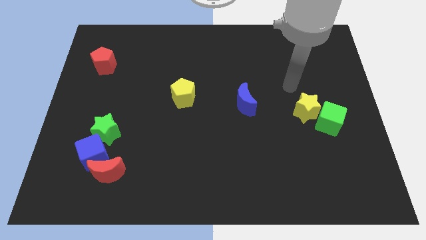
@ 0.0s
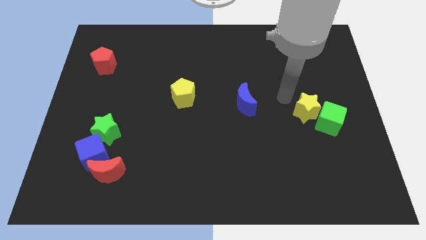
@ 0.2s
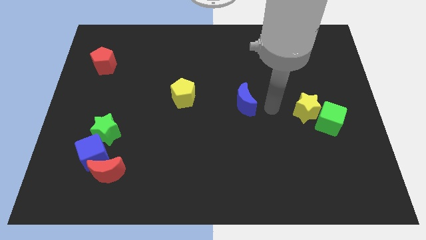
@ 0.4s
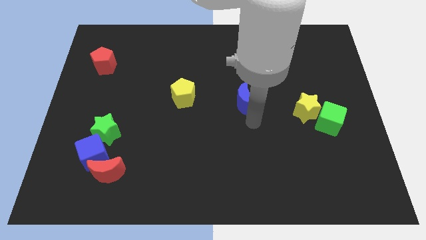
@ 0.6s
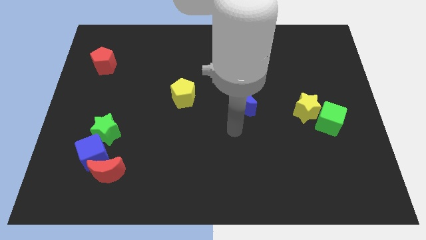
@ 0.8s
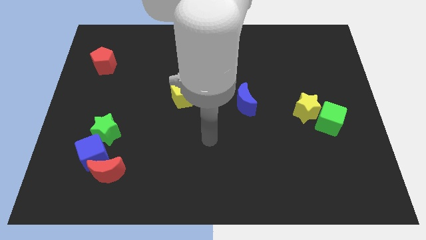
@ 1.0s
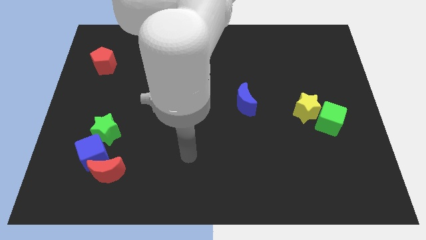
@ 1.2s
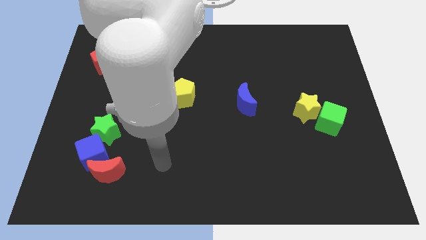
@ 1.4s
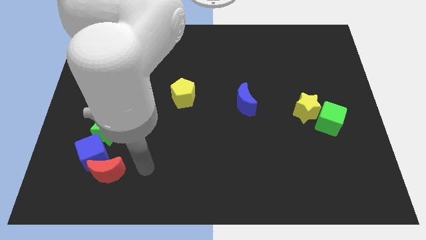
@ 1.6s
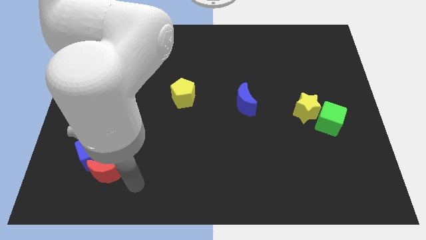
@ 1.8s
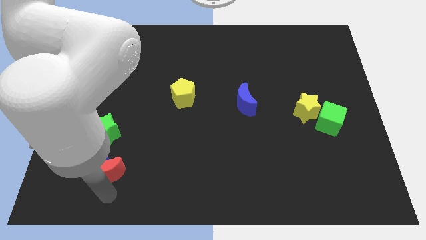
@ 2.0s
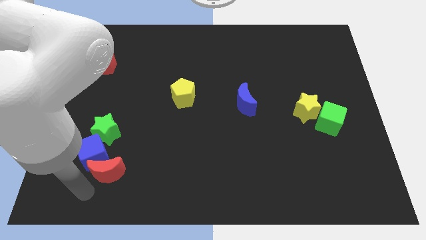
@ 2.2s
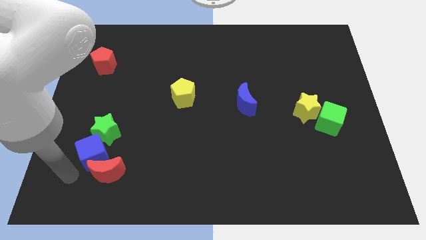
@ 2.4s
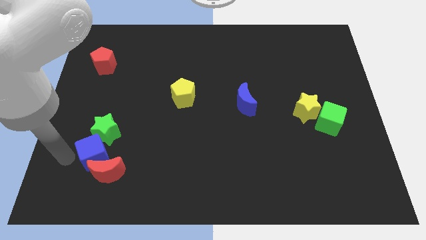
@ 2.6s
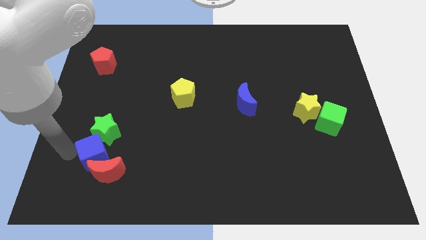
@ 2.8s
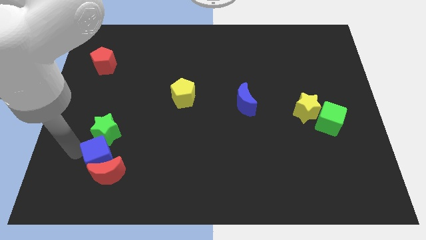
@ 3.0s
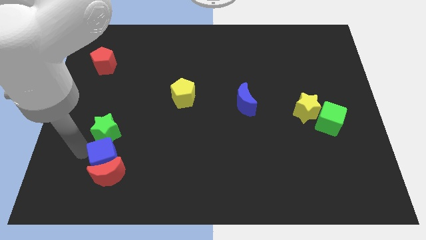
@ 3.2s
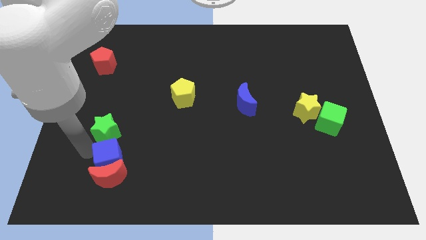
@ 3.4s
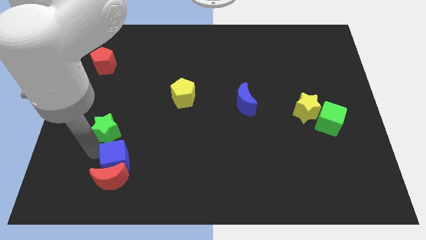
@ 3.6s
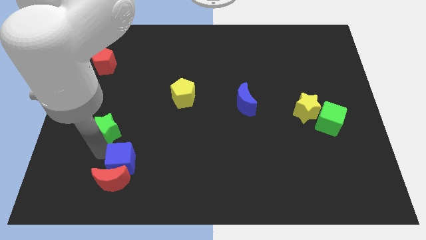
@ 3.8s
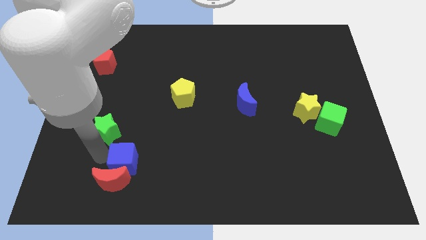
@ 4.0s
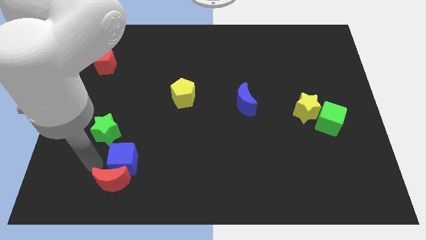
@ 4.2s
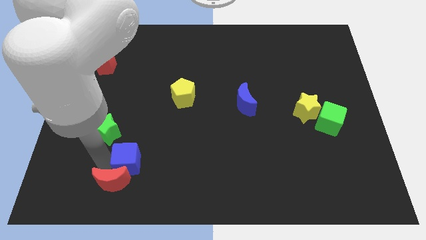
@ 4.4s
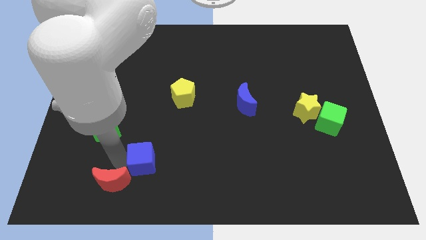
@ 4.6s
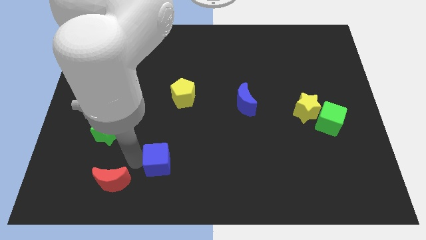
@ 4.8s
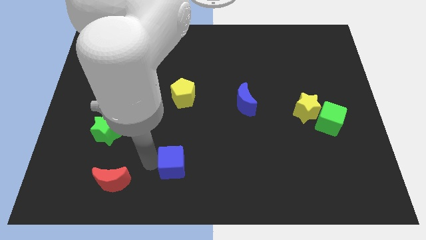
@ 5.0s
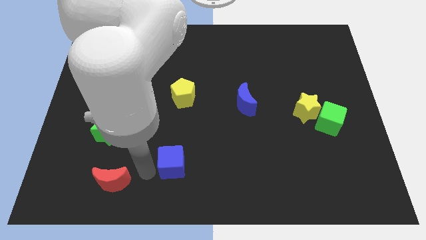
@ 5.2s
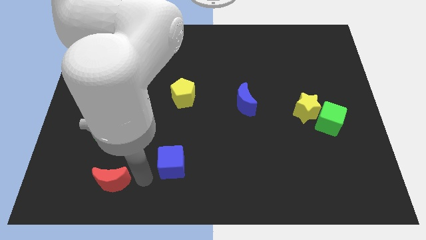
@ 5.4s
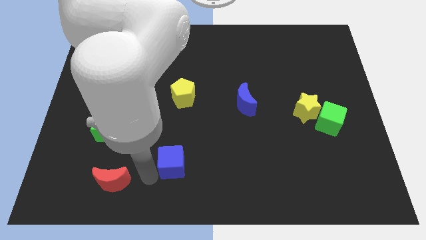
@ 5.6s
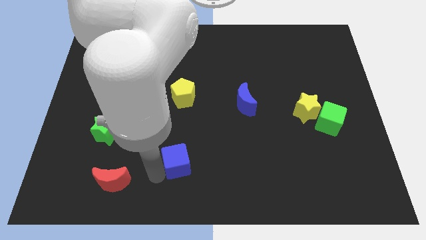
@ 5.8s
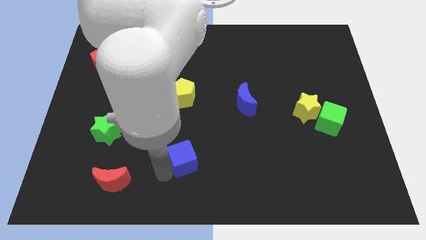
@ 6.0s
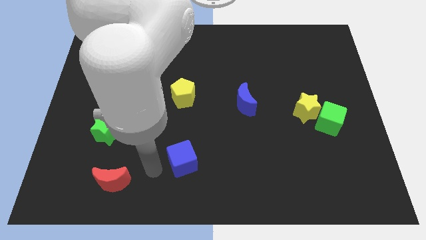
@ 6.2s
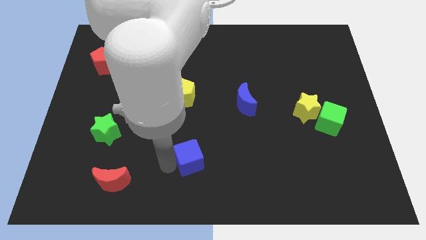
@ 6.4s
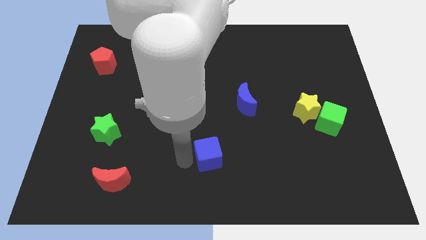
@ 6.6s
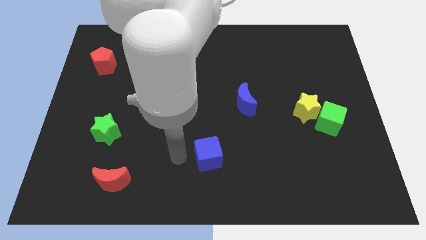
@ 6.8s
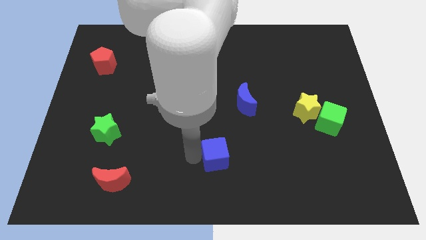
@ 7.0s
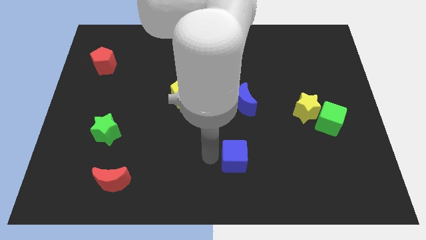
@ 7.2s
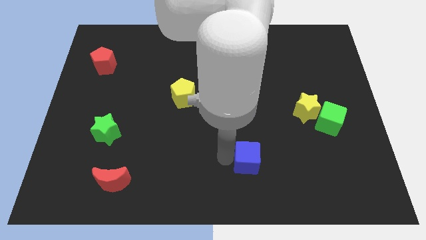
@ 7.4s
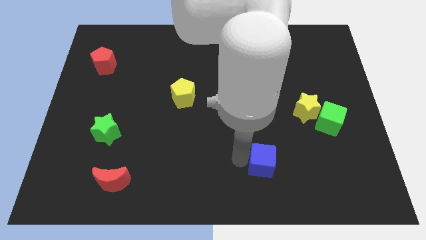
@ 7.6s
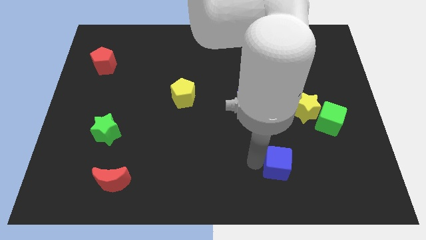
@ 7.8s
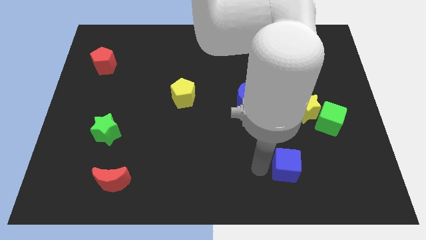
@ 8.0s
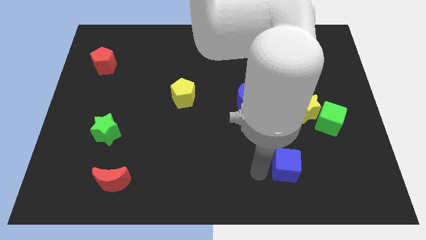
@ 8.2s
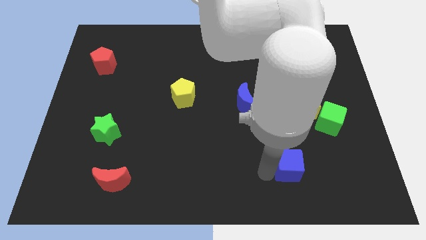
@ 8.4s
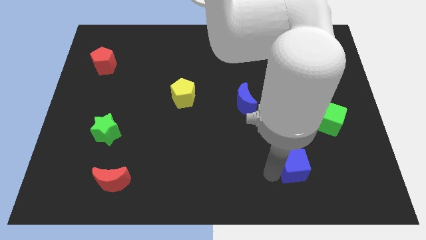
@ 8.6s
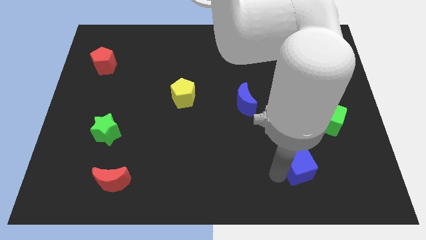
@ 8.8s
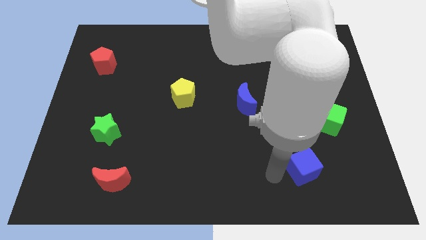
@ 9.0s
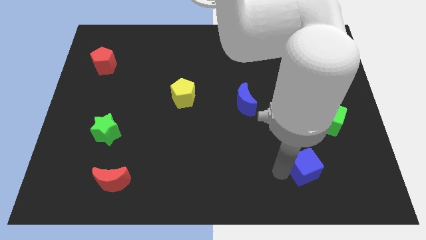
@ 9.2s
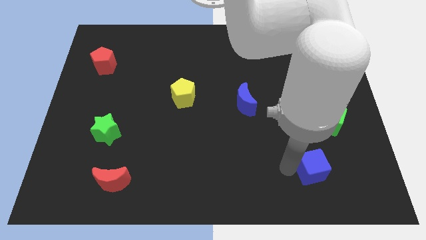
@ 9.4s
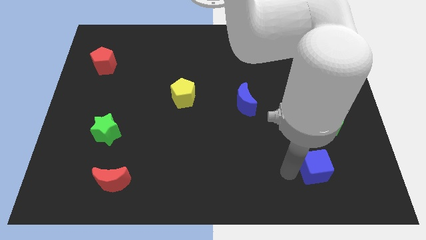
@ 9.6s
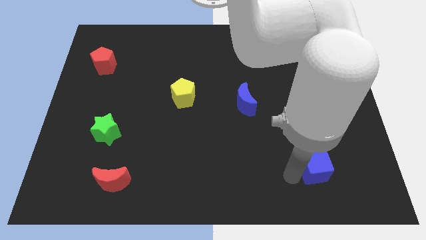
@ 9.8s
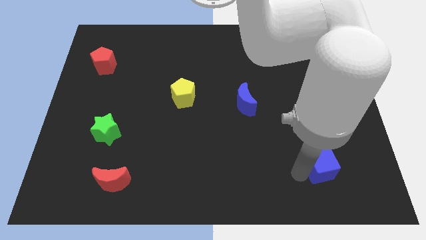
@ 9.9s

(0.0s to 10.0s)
slide the blue cube to the bottom of the green cube

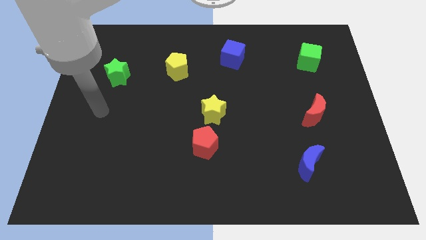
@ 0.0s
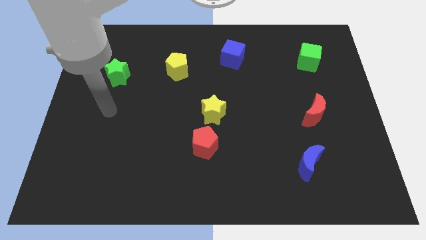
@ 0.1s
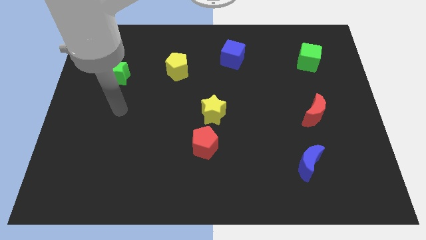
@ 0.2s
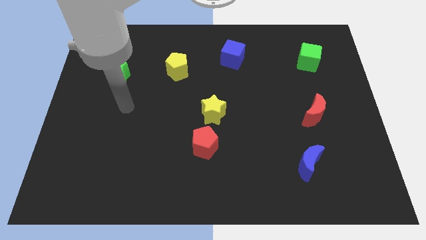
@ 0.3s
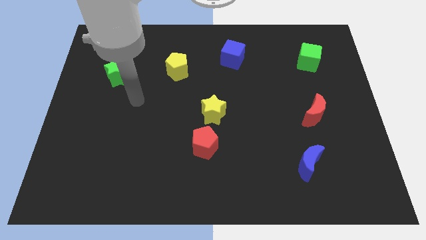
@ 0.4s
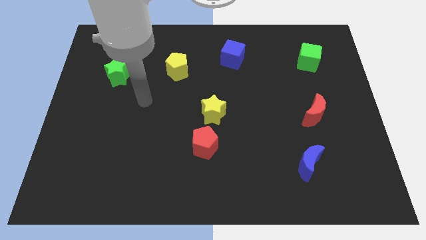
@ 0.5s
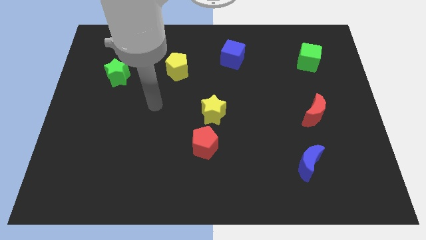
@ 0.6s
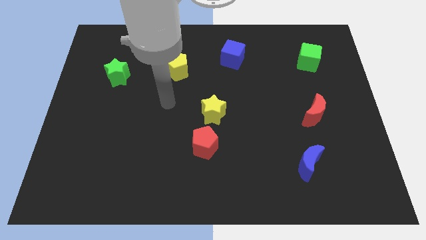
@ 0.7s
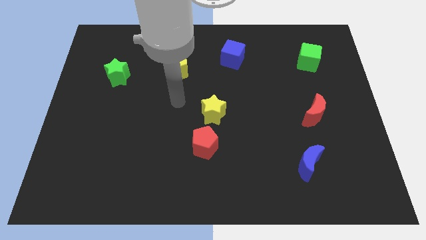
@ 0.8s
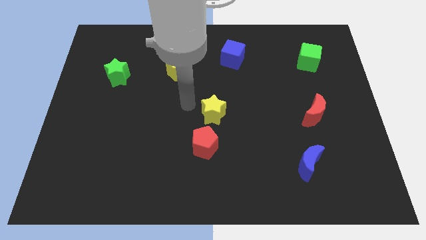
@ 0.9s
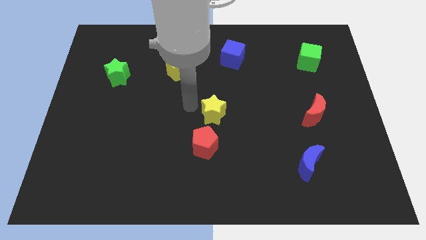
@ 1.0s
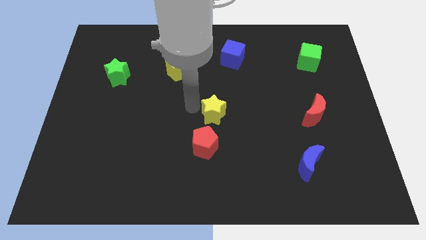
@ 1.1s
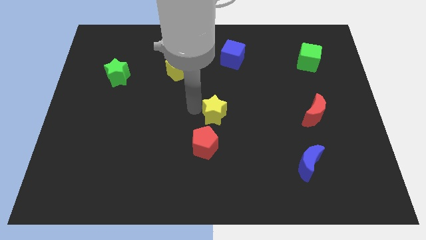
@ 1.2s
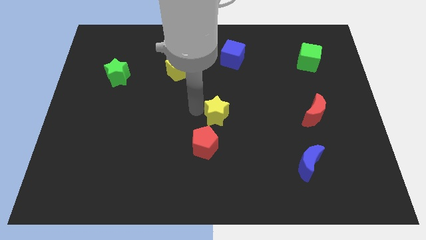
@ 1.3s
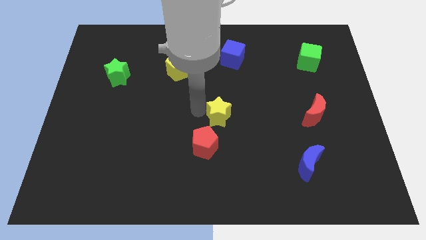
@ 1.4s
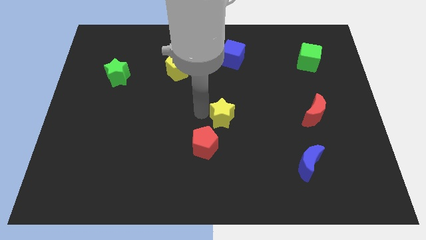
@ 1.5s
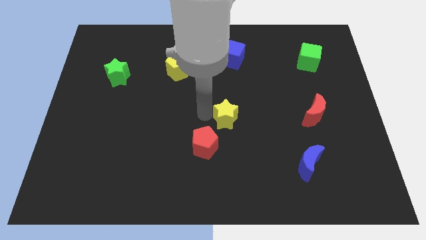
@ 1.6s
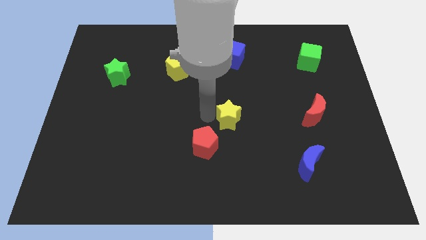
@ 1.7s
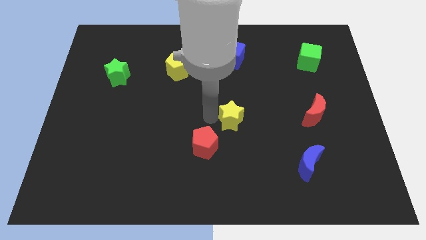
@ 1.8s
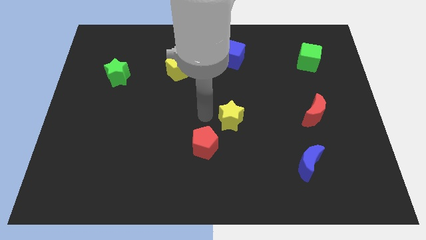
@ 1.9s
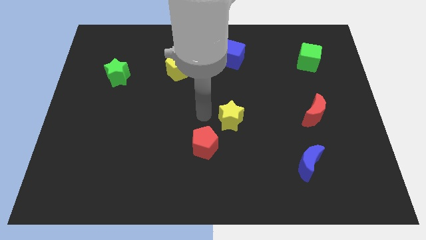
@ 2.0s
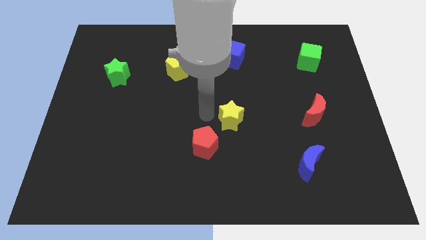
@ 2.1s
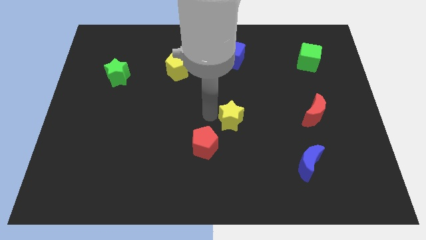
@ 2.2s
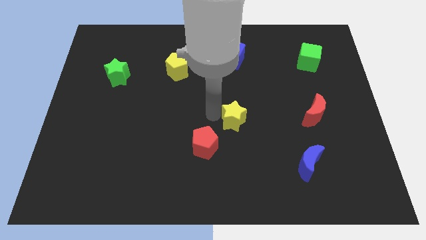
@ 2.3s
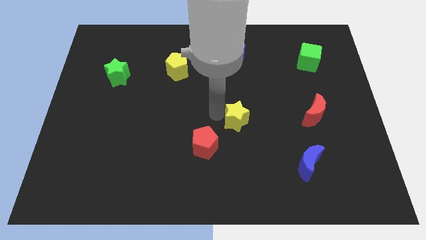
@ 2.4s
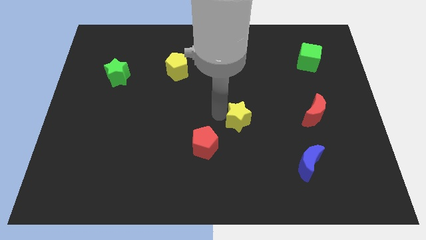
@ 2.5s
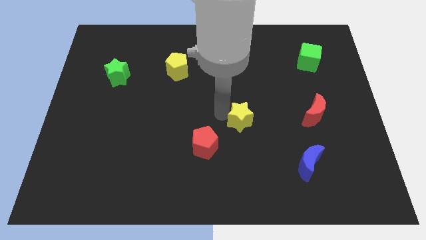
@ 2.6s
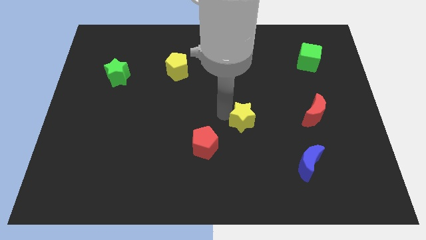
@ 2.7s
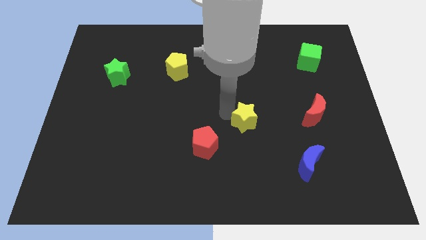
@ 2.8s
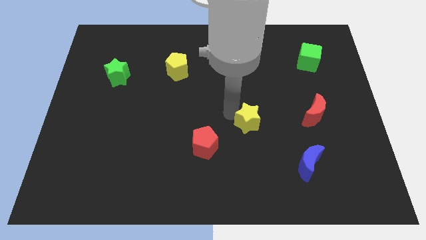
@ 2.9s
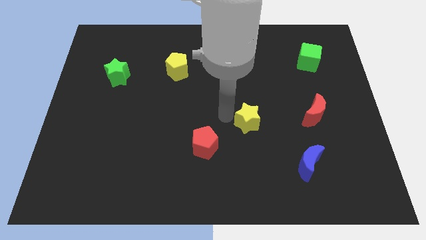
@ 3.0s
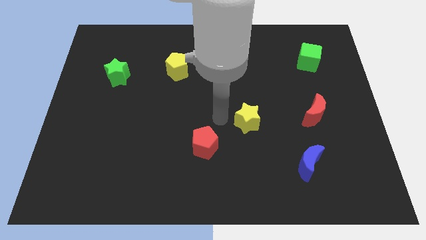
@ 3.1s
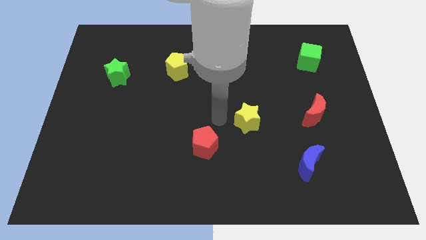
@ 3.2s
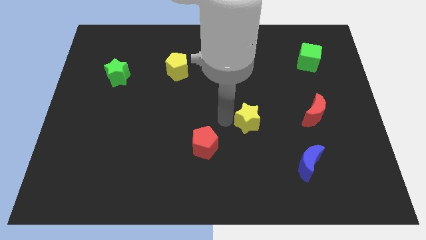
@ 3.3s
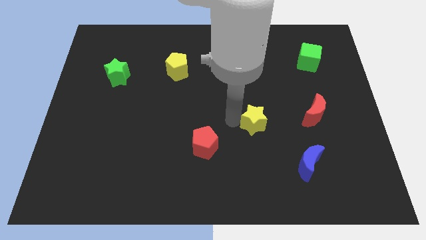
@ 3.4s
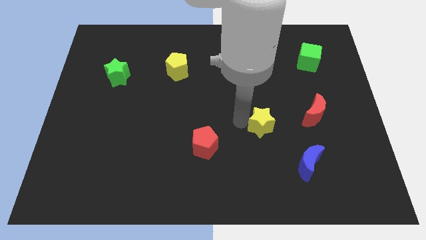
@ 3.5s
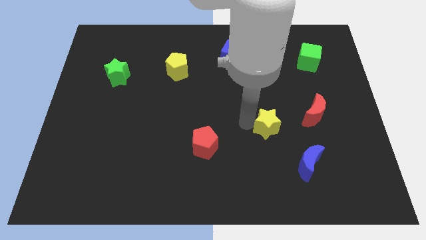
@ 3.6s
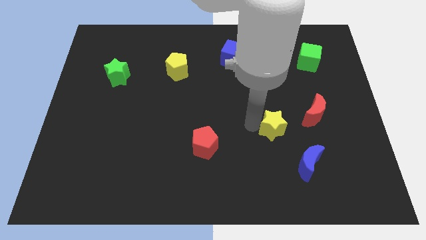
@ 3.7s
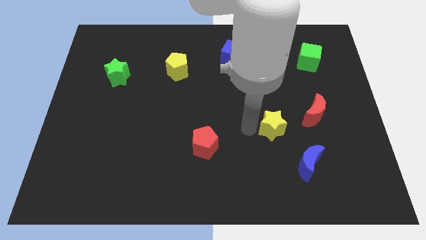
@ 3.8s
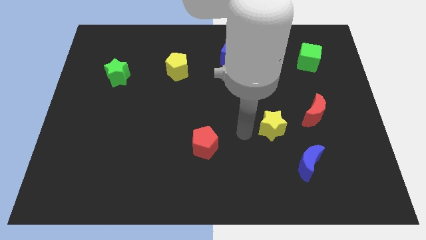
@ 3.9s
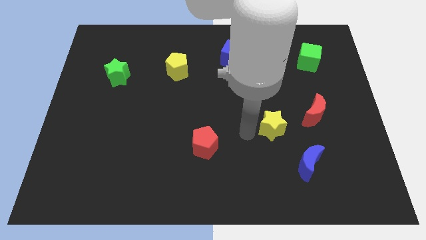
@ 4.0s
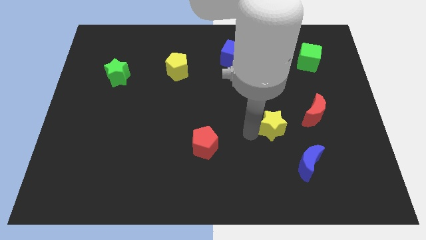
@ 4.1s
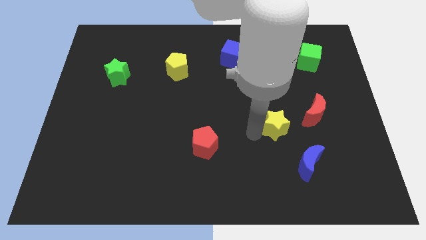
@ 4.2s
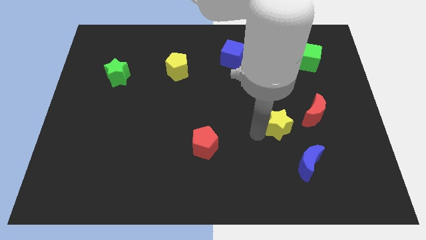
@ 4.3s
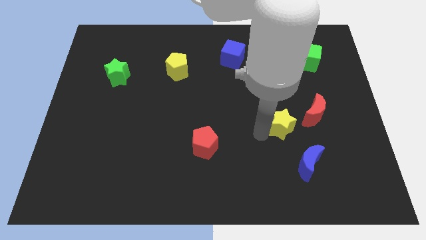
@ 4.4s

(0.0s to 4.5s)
slide the yellow star to the top of the blue moon
